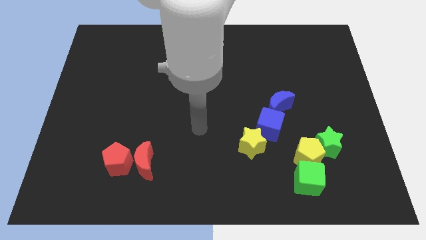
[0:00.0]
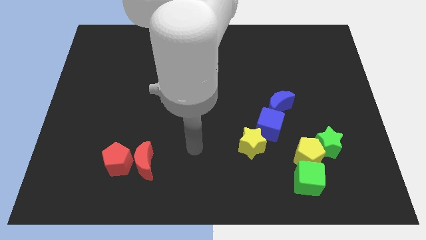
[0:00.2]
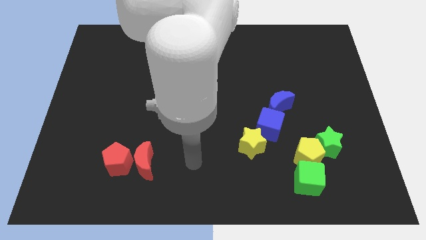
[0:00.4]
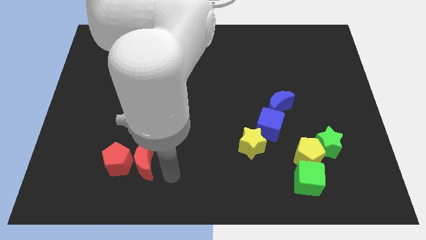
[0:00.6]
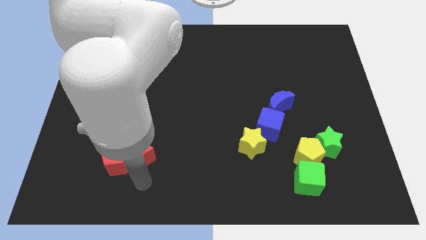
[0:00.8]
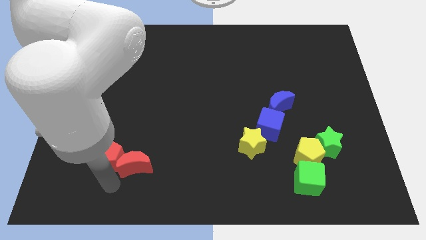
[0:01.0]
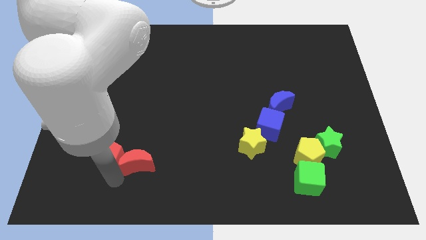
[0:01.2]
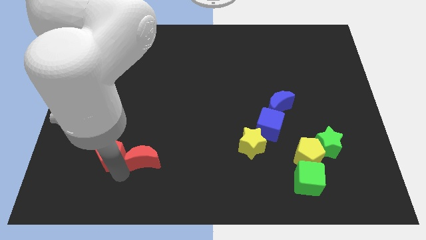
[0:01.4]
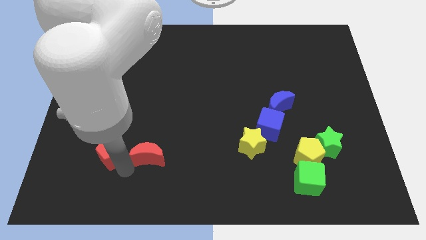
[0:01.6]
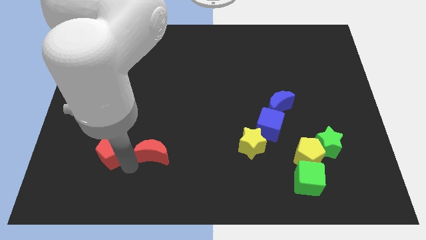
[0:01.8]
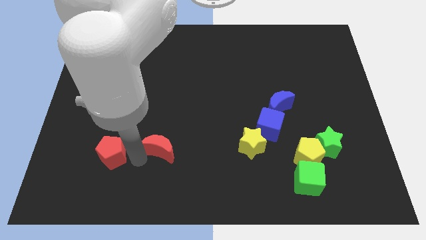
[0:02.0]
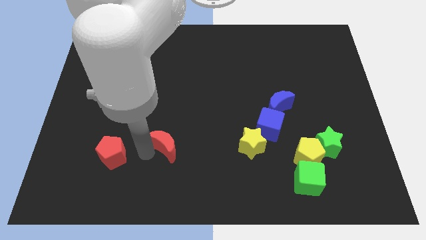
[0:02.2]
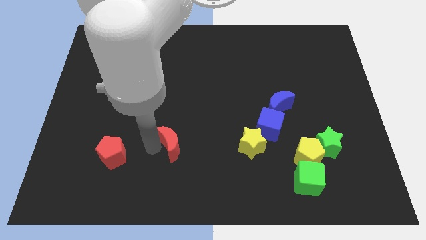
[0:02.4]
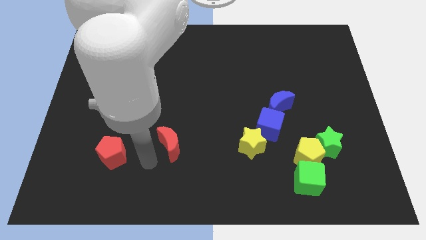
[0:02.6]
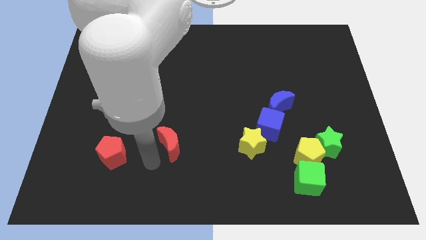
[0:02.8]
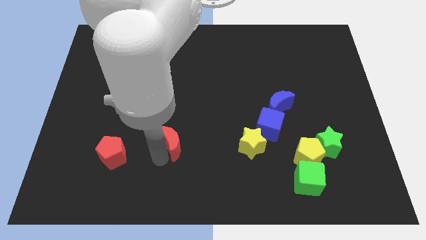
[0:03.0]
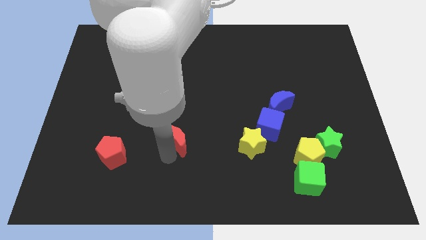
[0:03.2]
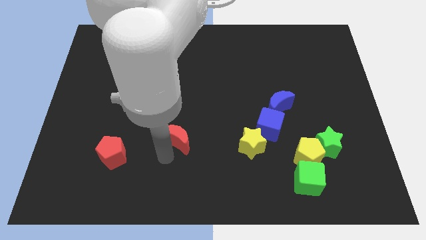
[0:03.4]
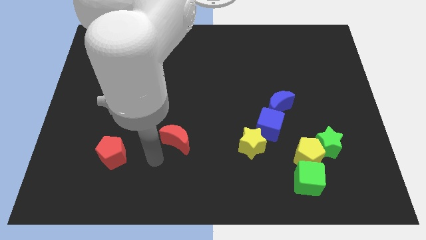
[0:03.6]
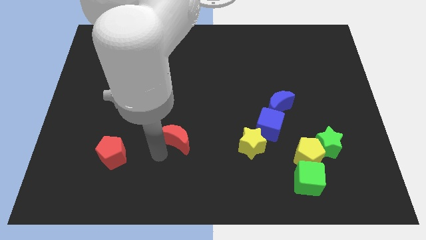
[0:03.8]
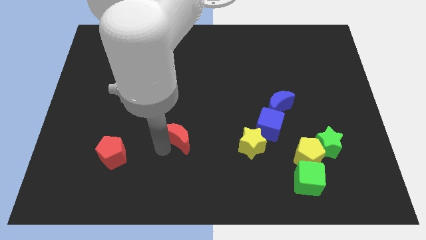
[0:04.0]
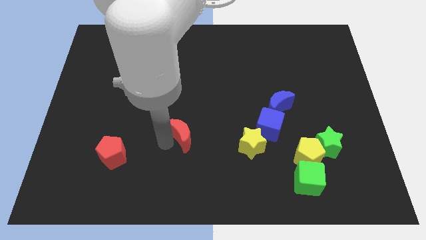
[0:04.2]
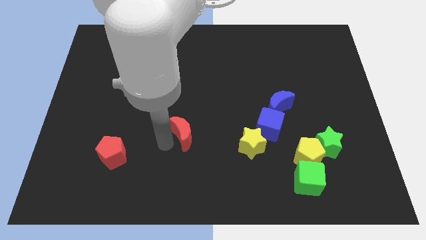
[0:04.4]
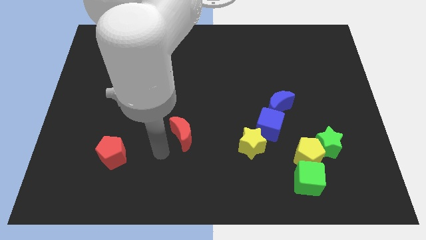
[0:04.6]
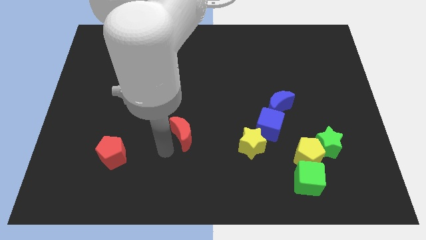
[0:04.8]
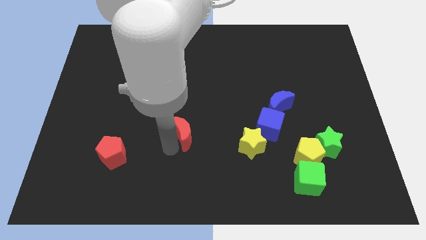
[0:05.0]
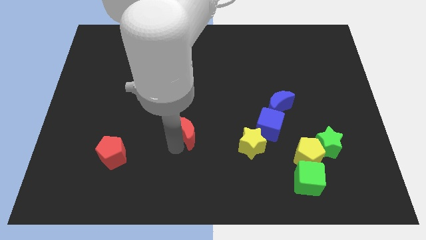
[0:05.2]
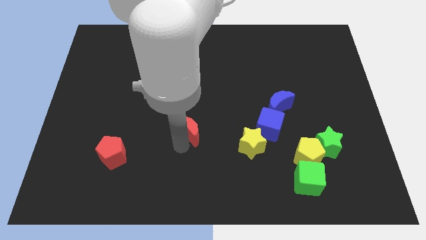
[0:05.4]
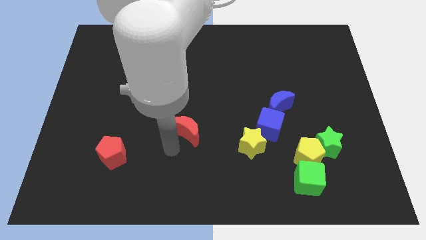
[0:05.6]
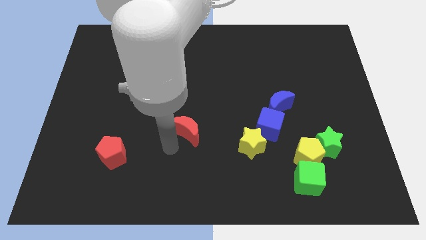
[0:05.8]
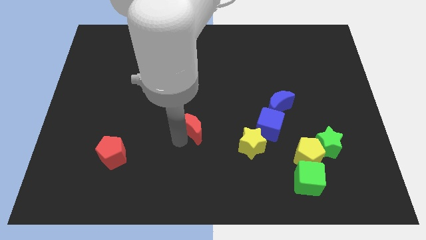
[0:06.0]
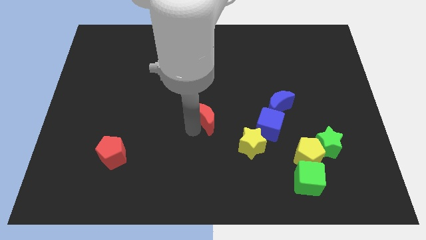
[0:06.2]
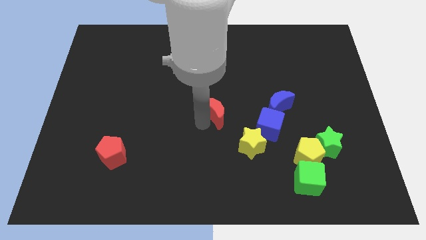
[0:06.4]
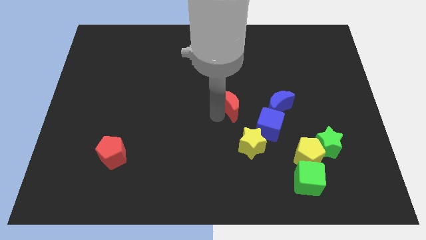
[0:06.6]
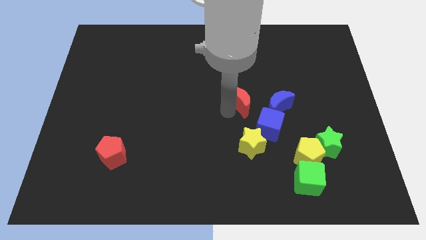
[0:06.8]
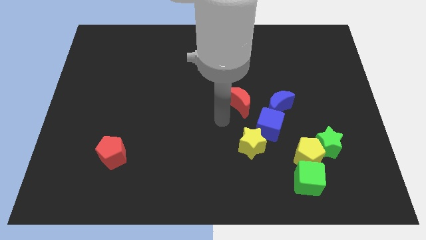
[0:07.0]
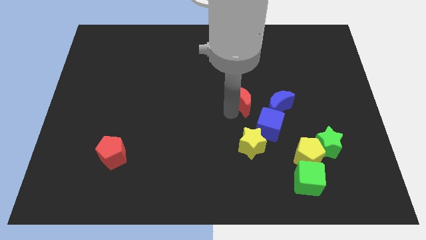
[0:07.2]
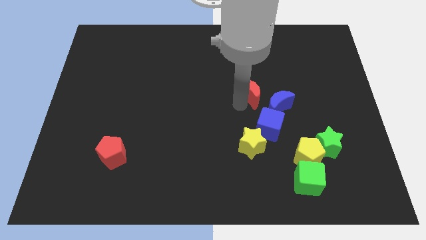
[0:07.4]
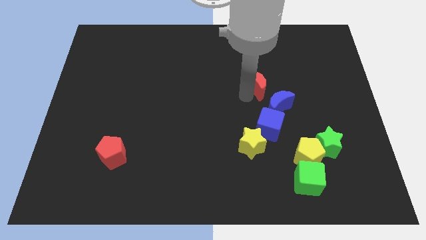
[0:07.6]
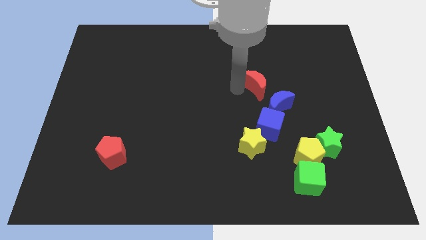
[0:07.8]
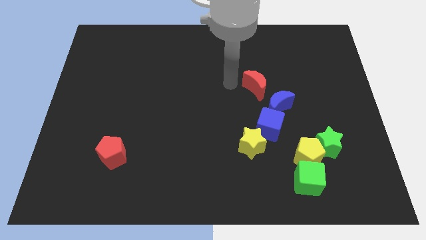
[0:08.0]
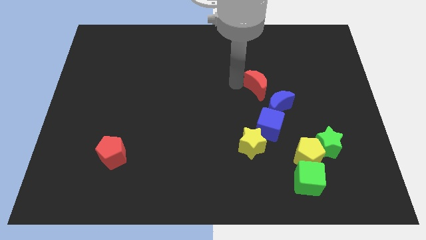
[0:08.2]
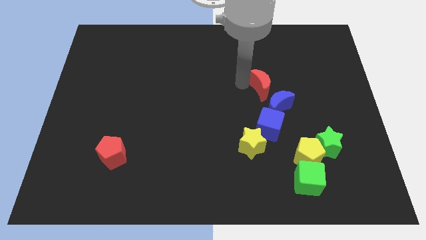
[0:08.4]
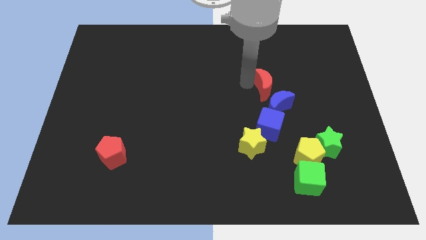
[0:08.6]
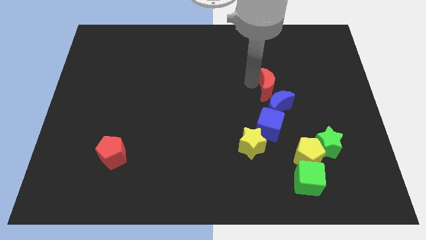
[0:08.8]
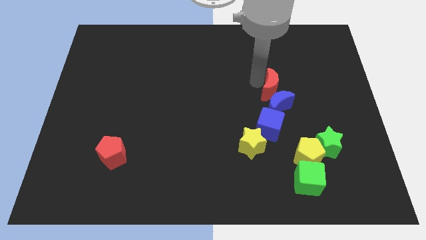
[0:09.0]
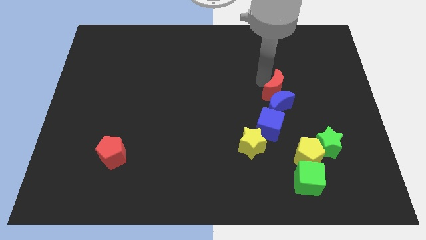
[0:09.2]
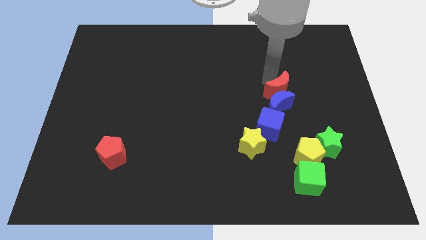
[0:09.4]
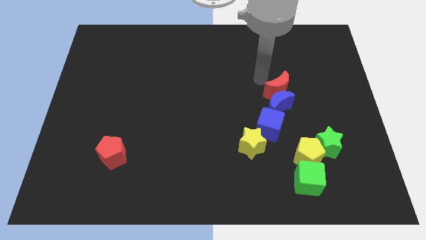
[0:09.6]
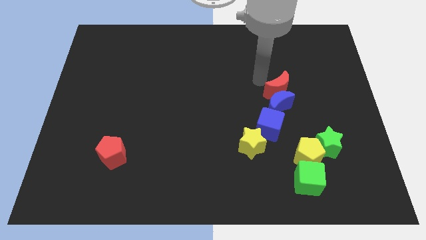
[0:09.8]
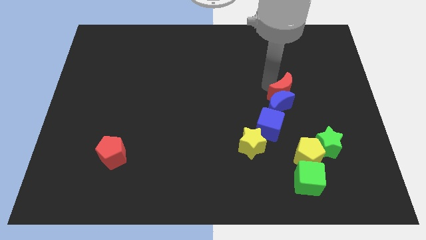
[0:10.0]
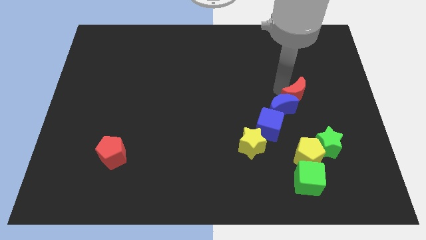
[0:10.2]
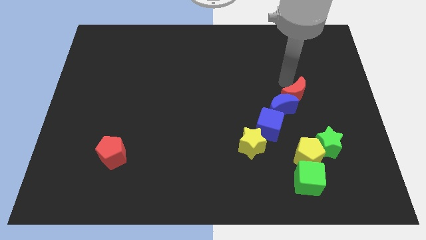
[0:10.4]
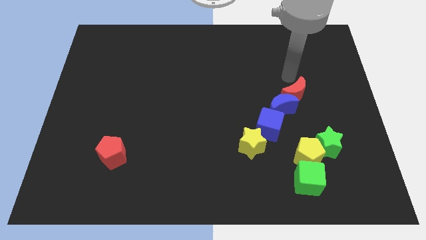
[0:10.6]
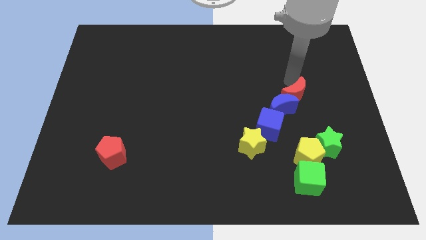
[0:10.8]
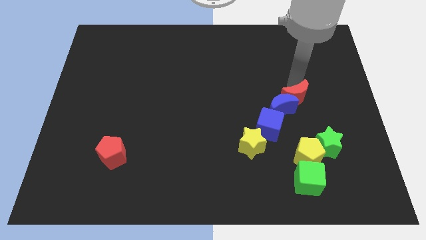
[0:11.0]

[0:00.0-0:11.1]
push the red moon above the yellow pentagon

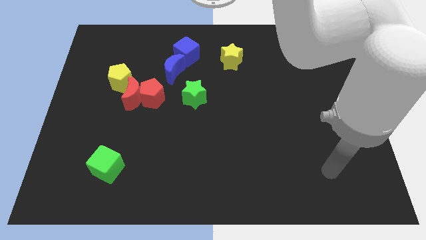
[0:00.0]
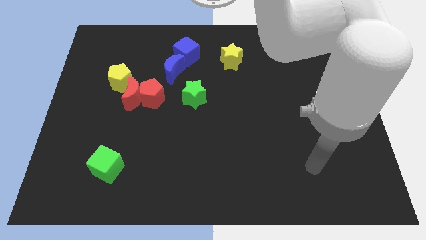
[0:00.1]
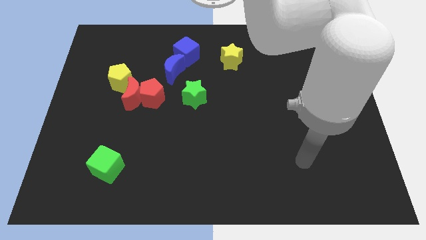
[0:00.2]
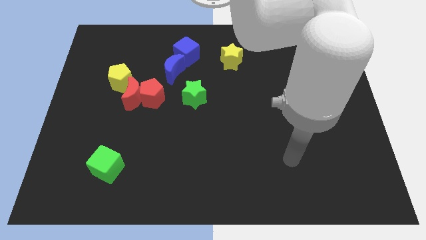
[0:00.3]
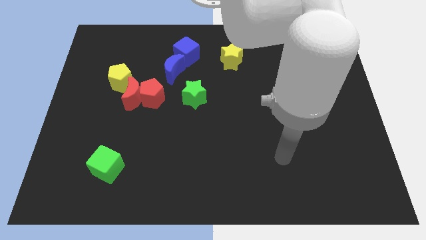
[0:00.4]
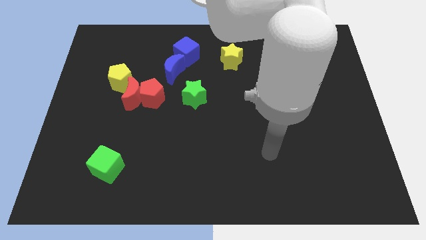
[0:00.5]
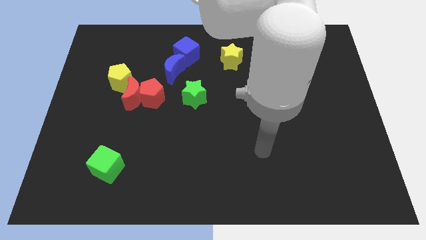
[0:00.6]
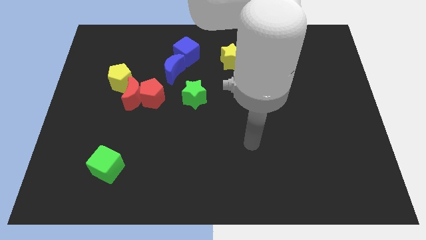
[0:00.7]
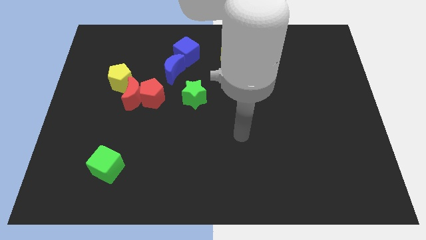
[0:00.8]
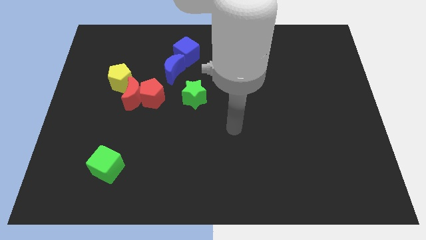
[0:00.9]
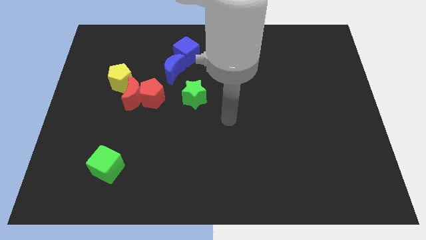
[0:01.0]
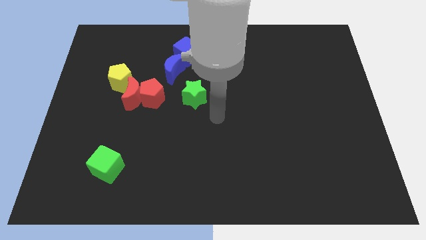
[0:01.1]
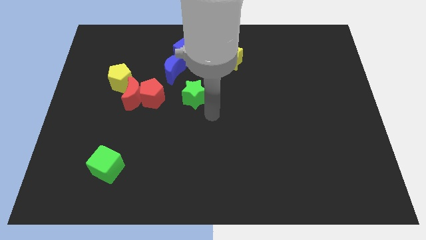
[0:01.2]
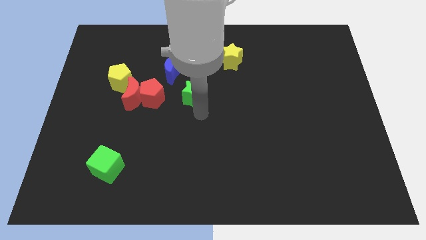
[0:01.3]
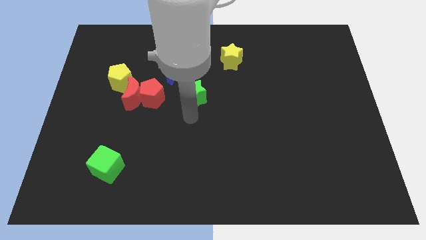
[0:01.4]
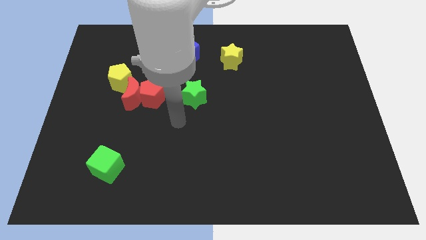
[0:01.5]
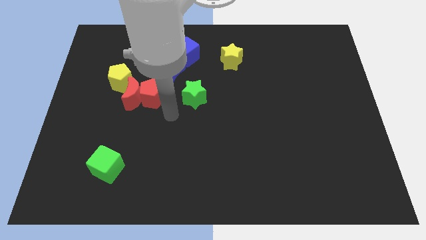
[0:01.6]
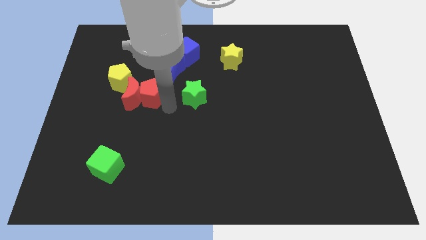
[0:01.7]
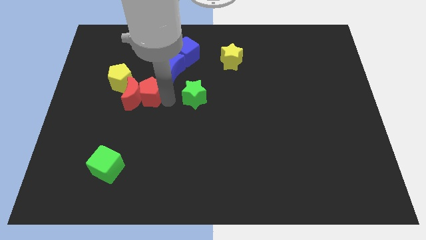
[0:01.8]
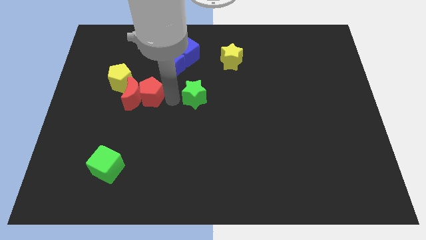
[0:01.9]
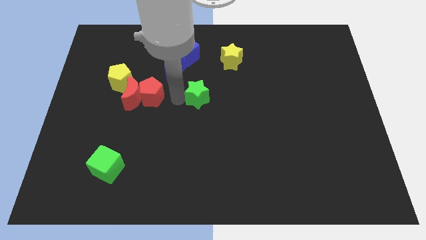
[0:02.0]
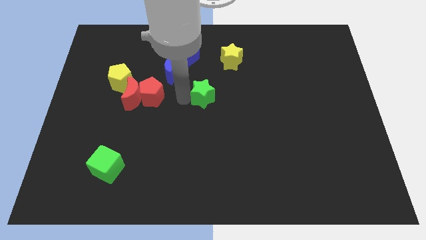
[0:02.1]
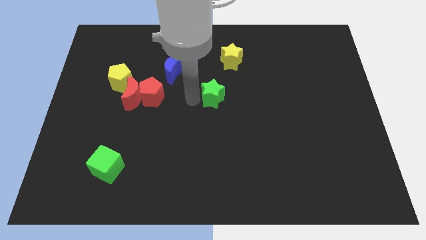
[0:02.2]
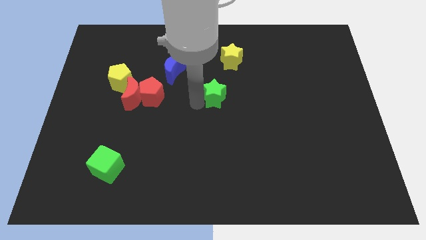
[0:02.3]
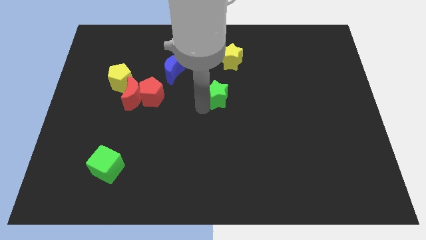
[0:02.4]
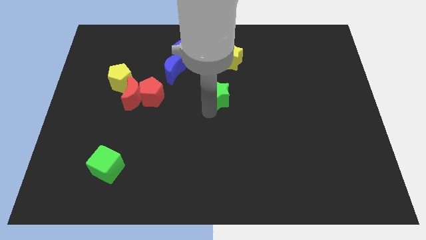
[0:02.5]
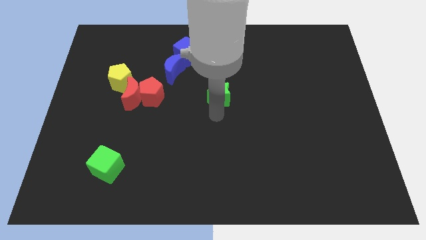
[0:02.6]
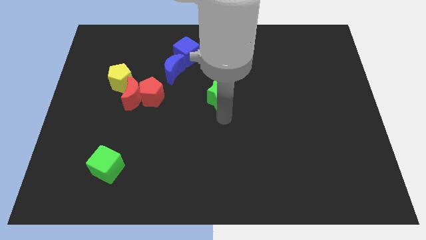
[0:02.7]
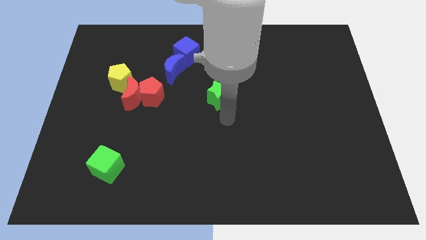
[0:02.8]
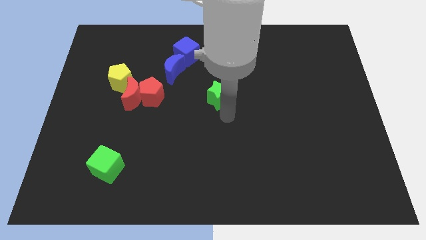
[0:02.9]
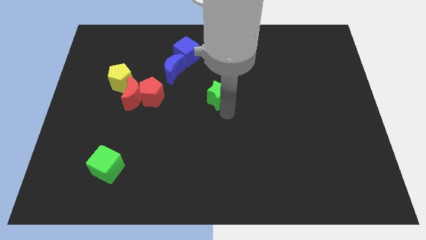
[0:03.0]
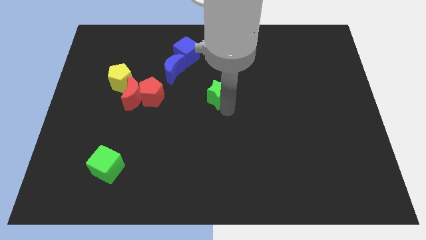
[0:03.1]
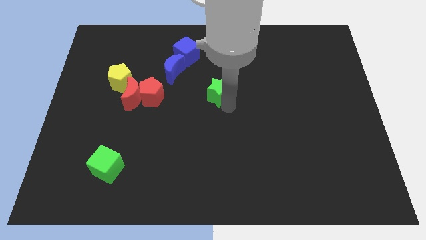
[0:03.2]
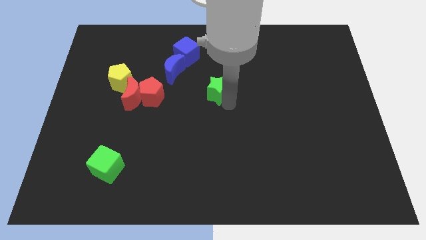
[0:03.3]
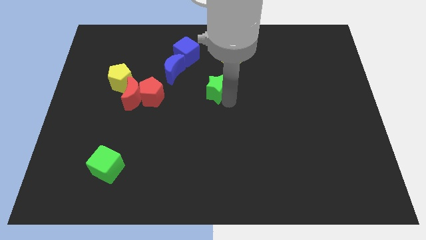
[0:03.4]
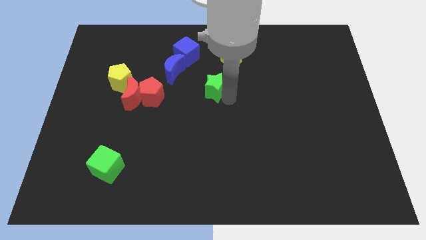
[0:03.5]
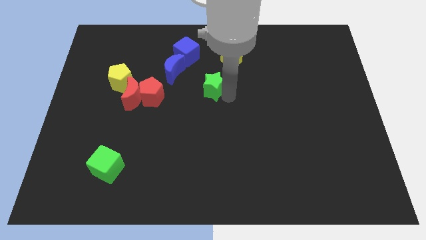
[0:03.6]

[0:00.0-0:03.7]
push the green star to the bottom left of the yellow star
